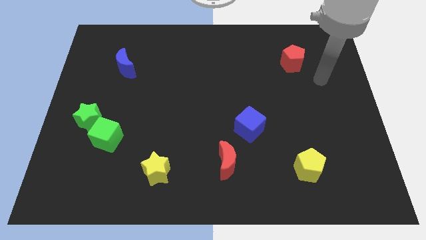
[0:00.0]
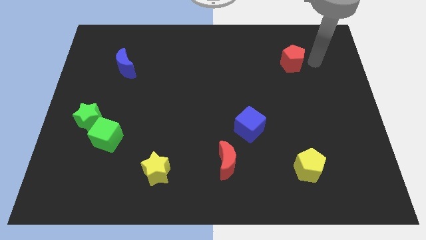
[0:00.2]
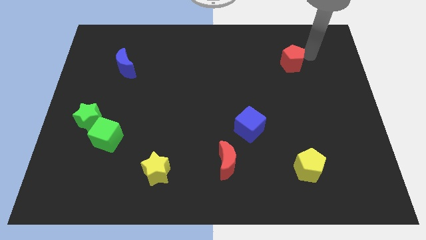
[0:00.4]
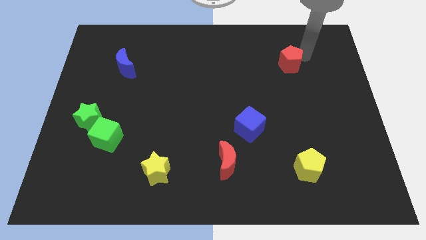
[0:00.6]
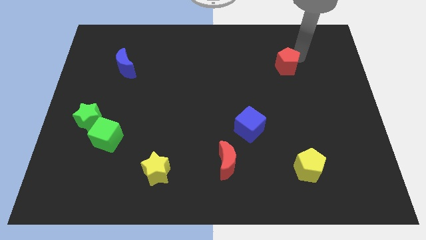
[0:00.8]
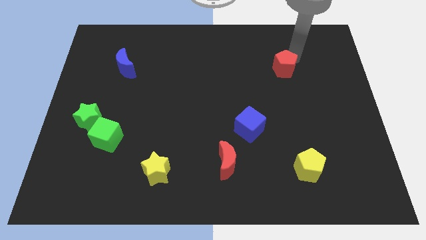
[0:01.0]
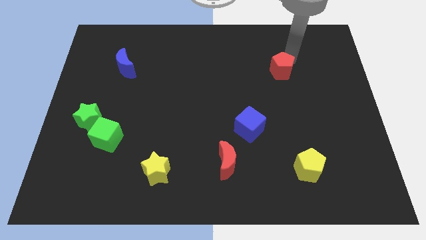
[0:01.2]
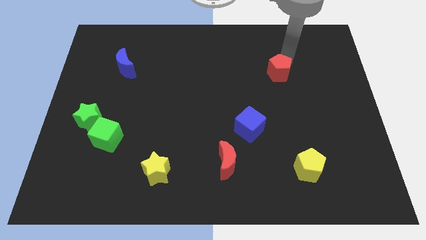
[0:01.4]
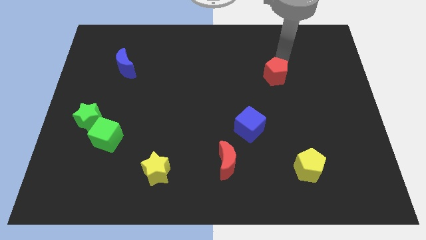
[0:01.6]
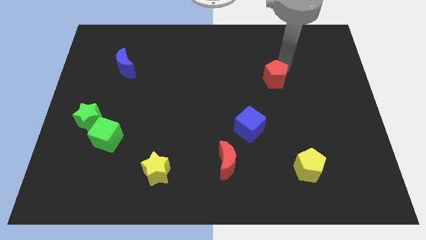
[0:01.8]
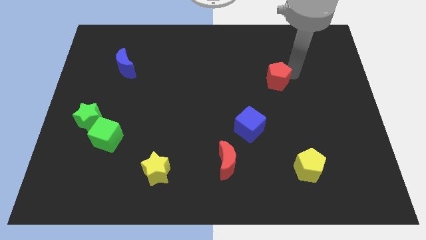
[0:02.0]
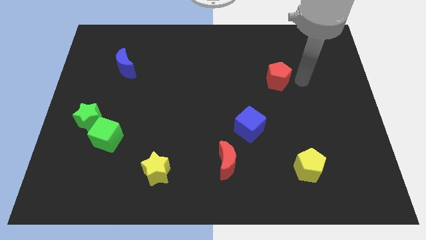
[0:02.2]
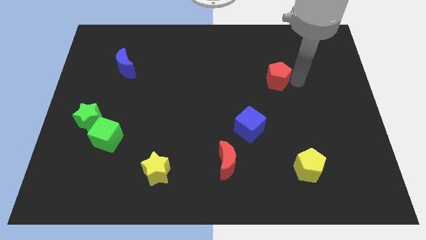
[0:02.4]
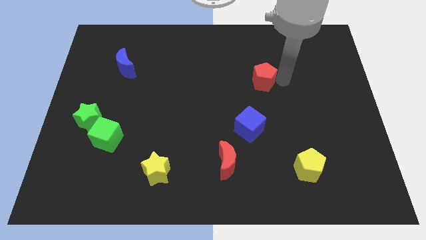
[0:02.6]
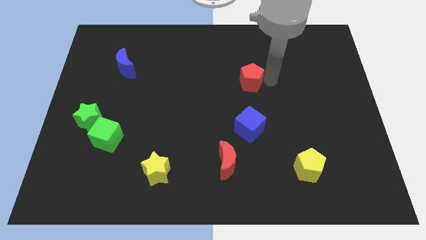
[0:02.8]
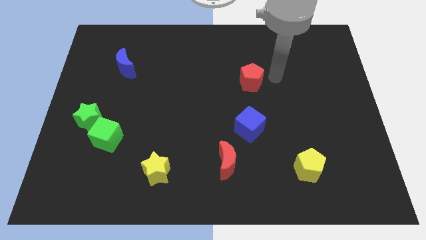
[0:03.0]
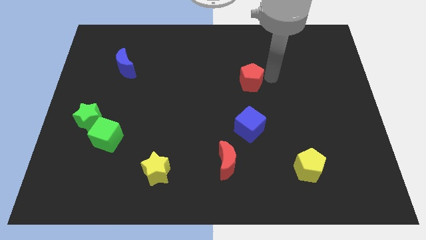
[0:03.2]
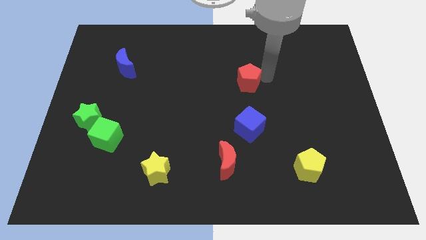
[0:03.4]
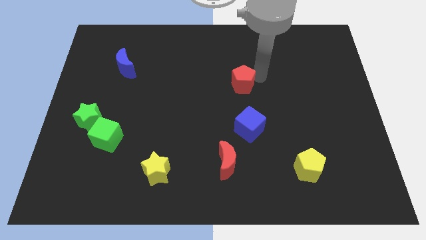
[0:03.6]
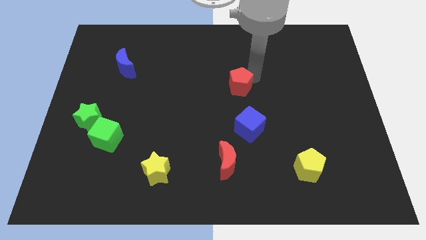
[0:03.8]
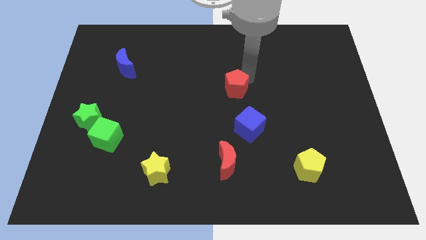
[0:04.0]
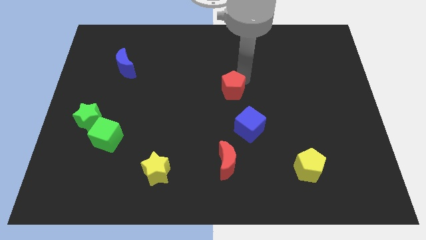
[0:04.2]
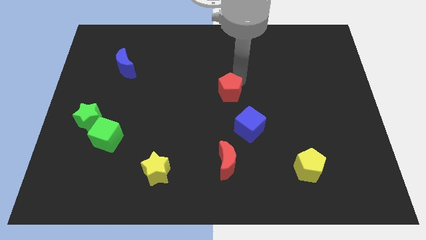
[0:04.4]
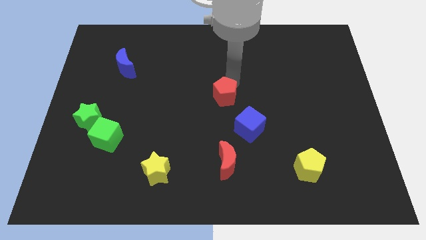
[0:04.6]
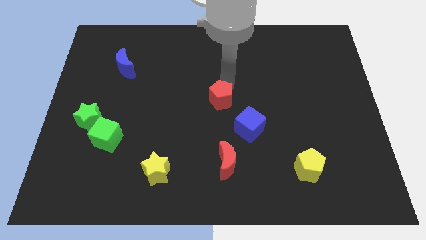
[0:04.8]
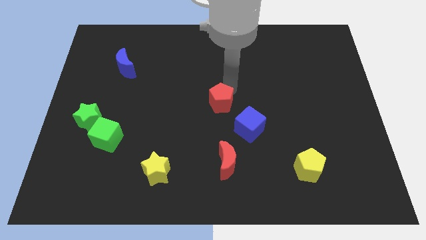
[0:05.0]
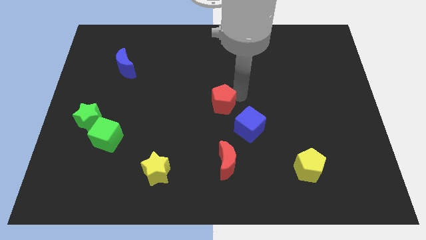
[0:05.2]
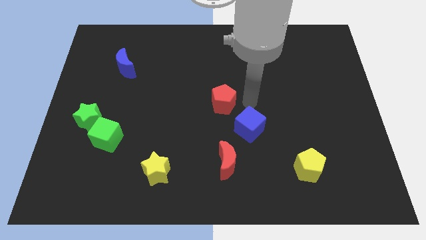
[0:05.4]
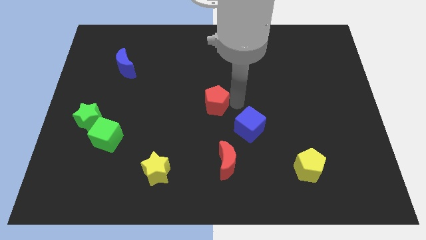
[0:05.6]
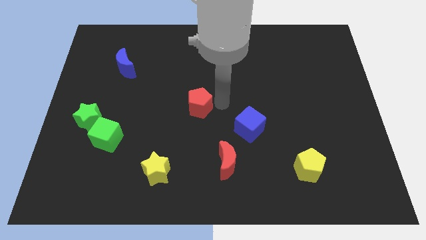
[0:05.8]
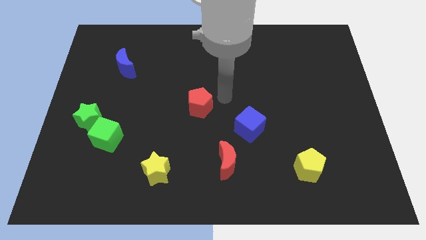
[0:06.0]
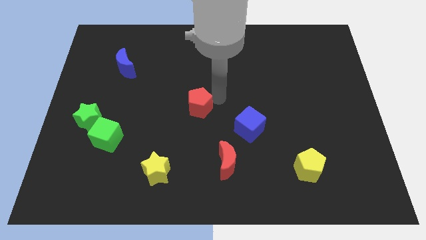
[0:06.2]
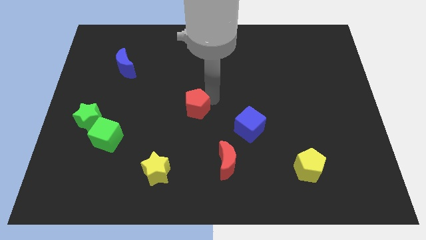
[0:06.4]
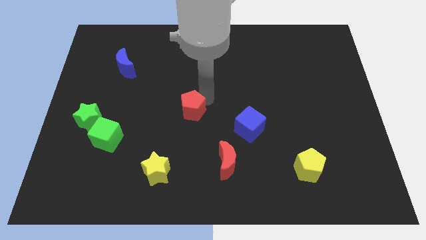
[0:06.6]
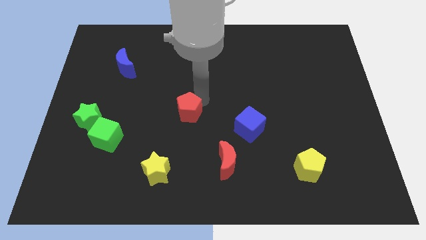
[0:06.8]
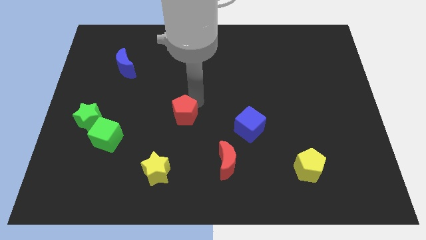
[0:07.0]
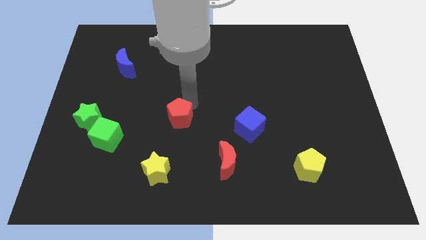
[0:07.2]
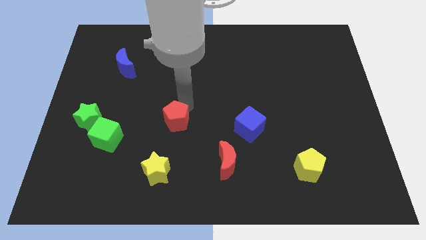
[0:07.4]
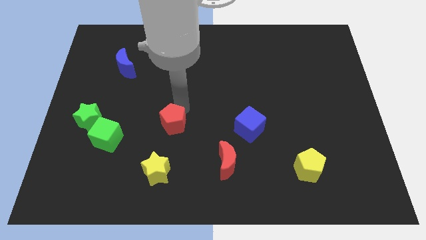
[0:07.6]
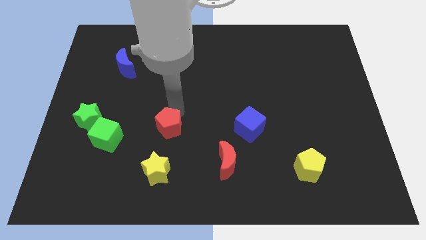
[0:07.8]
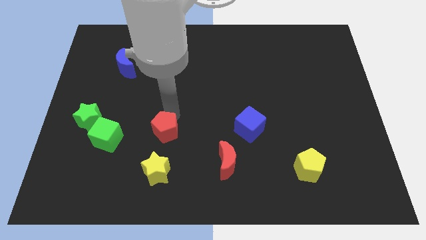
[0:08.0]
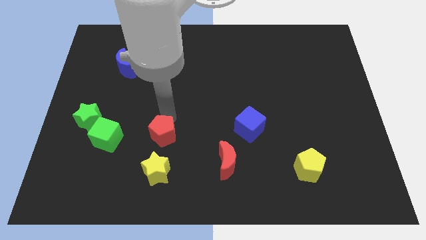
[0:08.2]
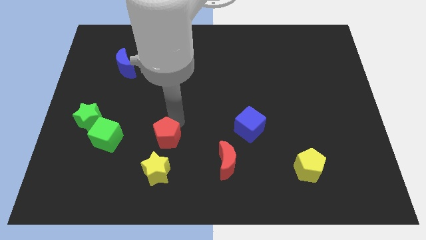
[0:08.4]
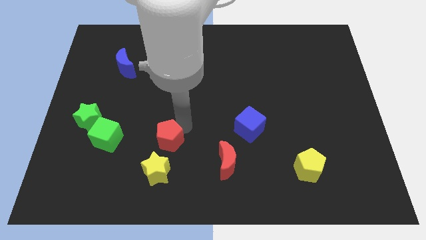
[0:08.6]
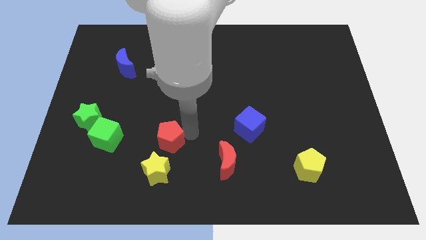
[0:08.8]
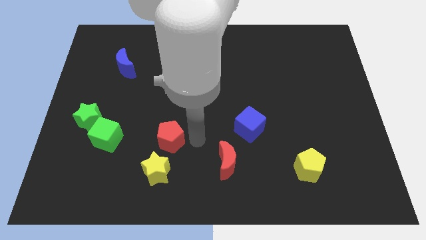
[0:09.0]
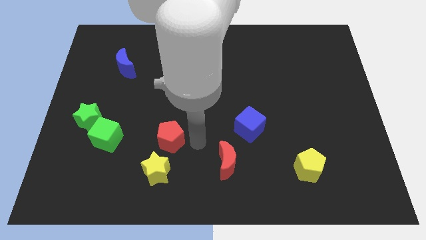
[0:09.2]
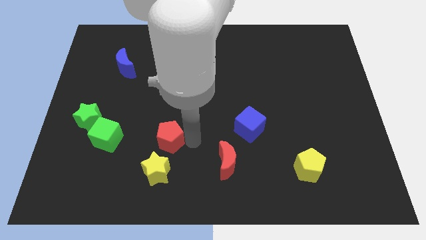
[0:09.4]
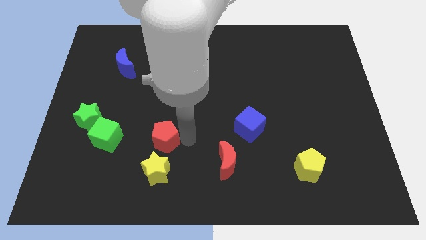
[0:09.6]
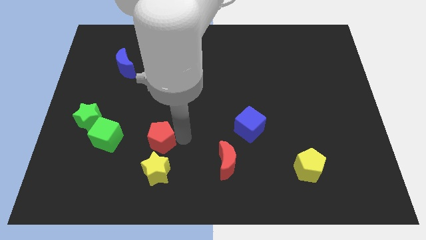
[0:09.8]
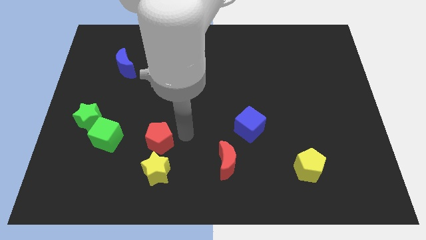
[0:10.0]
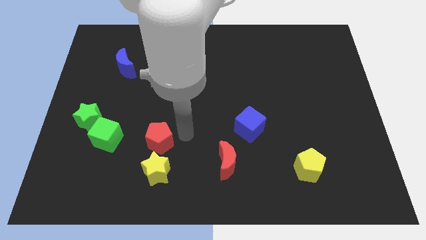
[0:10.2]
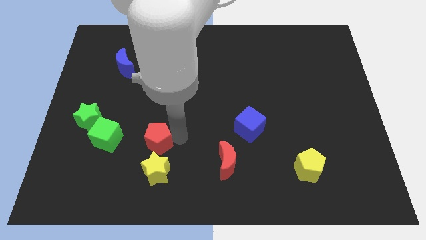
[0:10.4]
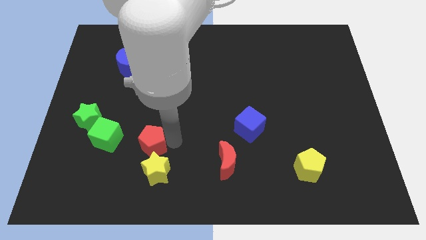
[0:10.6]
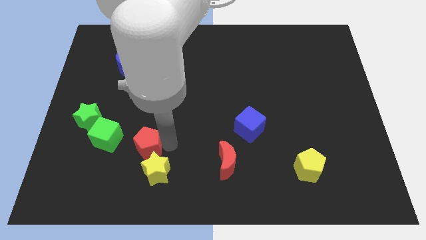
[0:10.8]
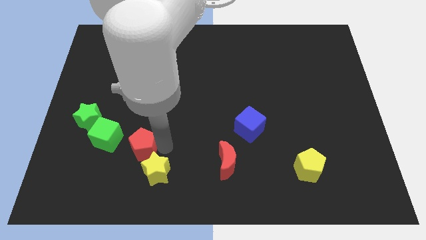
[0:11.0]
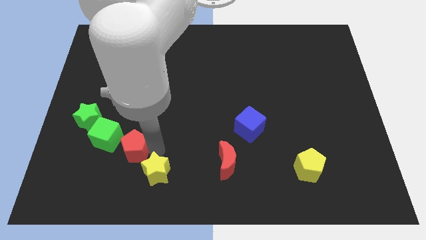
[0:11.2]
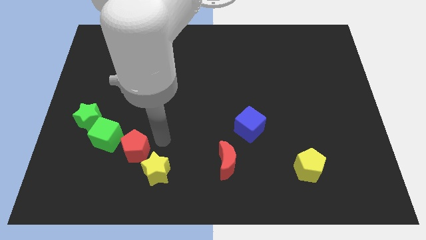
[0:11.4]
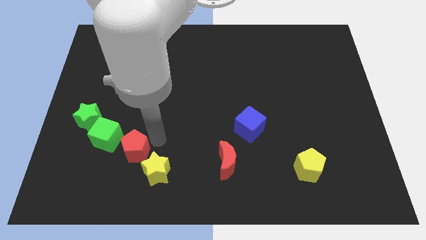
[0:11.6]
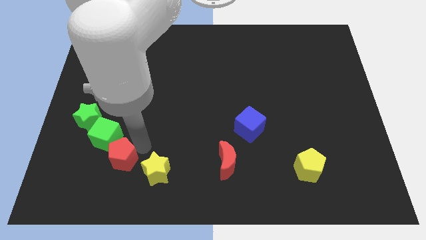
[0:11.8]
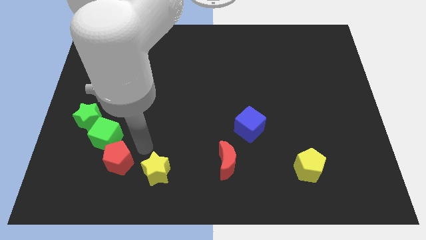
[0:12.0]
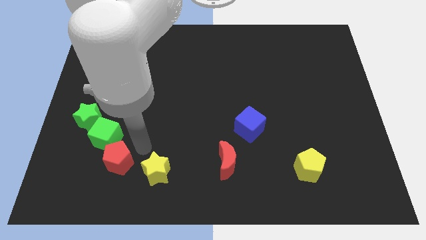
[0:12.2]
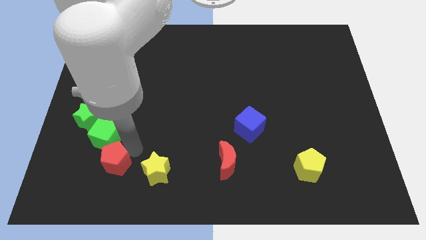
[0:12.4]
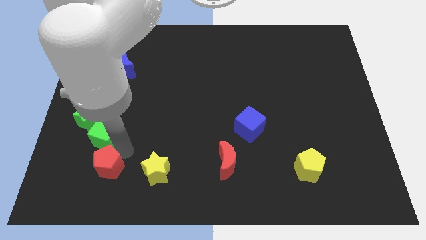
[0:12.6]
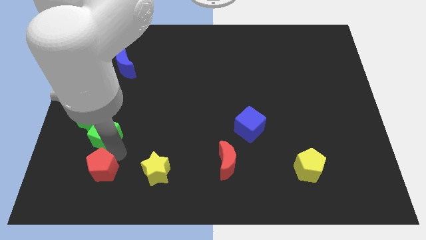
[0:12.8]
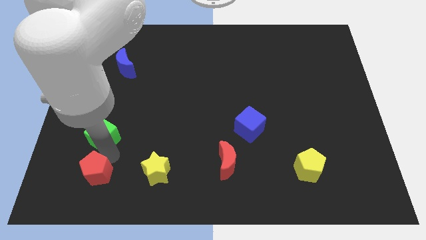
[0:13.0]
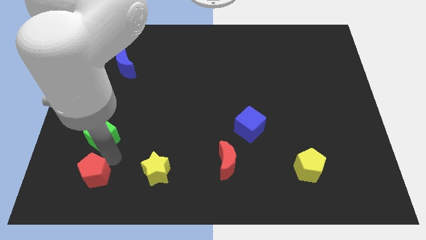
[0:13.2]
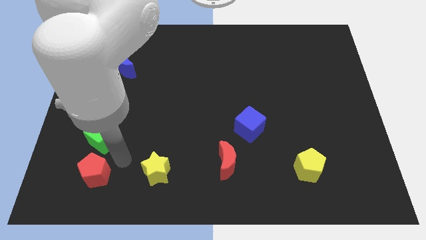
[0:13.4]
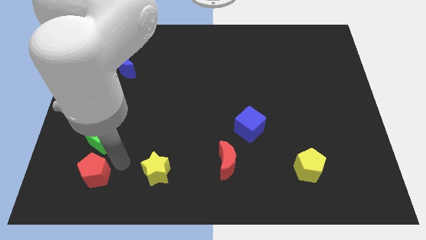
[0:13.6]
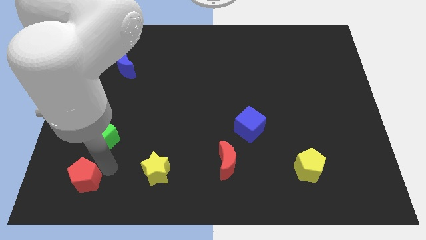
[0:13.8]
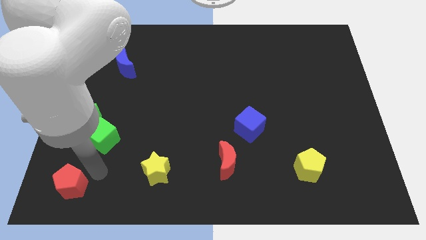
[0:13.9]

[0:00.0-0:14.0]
put the red pentagon to the bottom left corner

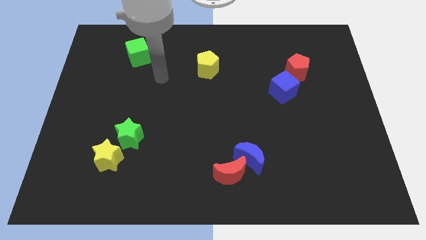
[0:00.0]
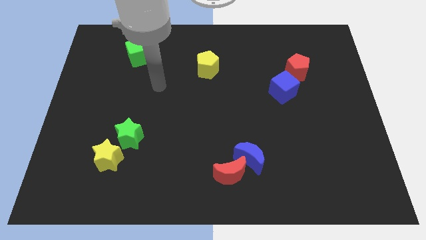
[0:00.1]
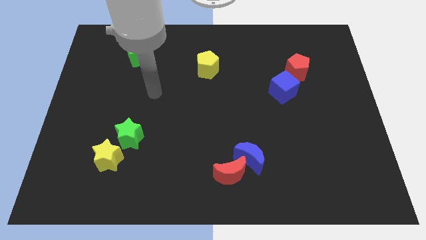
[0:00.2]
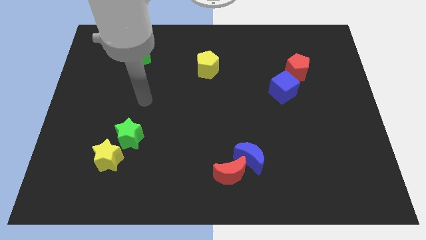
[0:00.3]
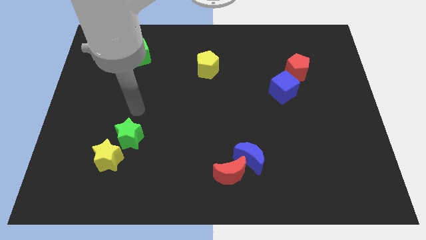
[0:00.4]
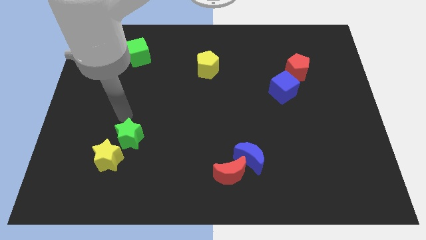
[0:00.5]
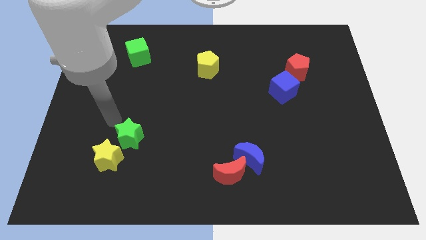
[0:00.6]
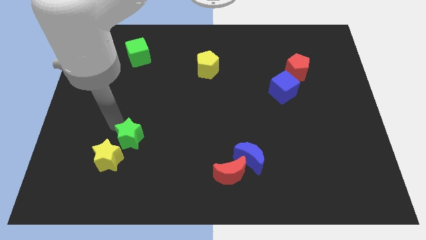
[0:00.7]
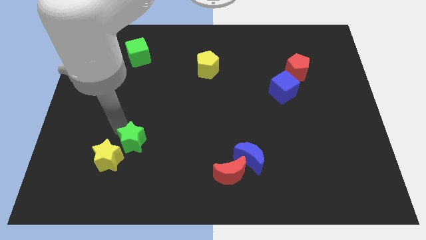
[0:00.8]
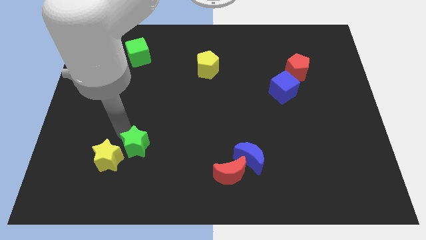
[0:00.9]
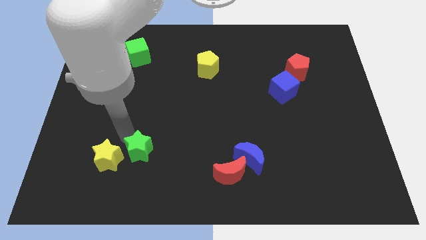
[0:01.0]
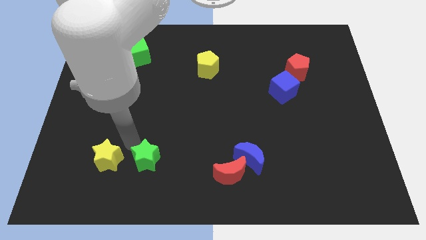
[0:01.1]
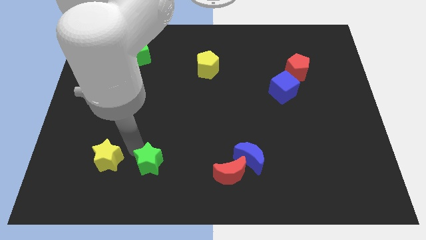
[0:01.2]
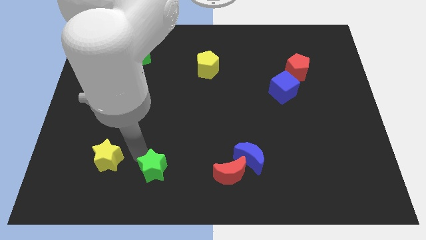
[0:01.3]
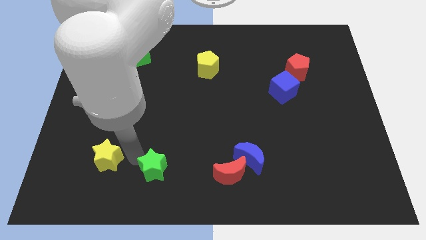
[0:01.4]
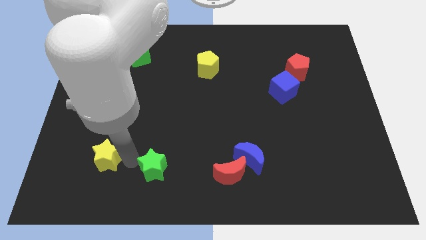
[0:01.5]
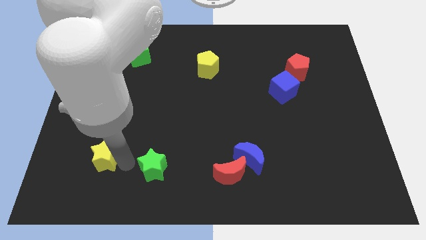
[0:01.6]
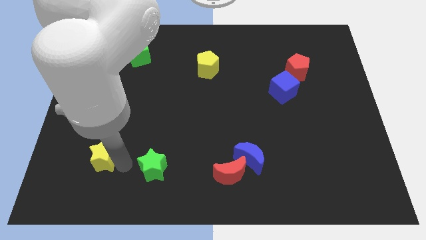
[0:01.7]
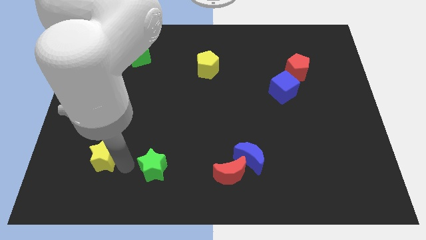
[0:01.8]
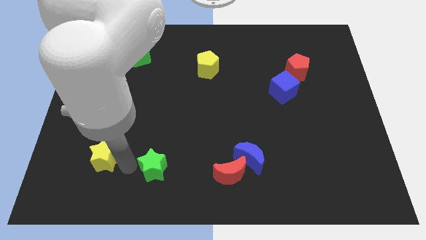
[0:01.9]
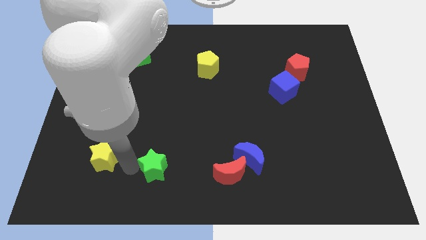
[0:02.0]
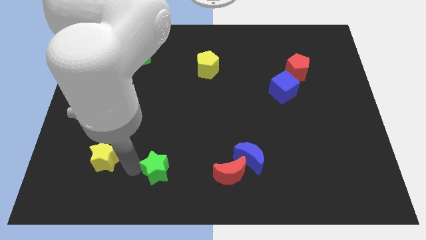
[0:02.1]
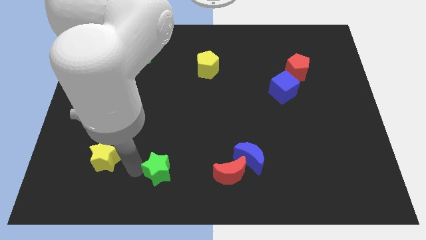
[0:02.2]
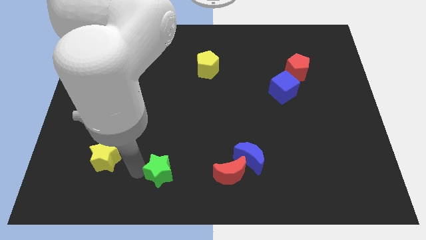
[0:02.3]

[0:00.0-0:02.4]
move the green star to the bottom side
